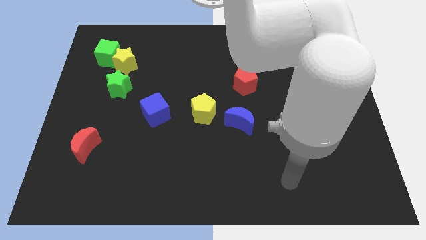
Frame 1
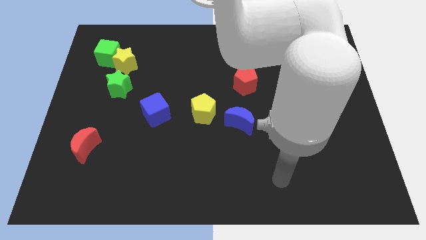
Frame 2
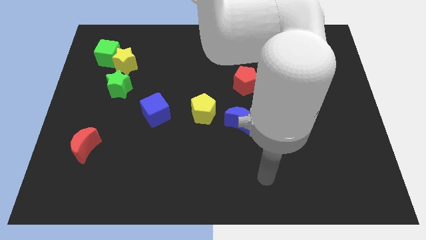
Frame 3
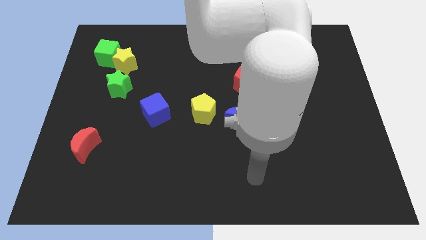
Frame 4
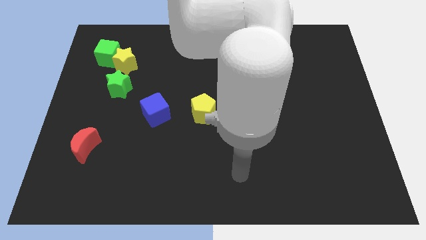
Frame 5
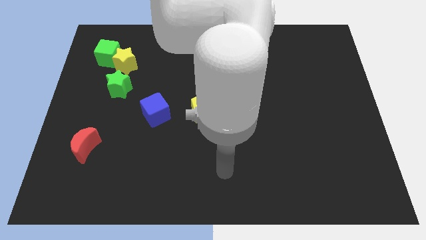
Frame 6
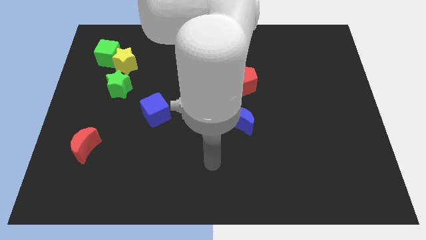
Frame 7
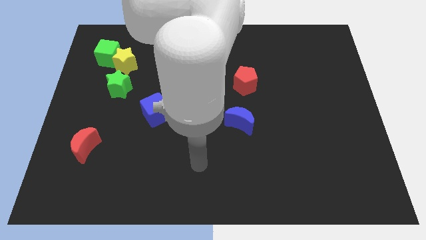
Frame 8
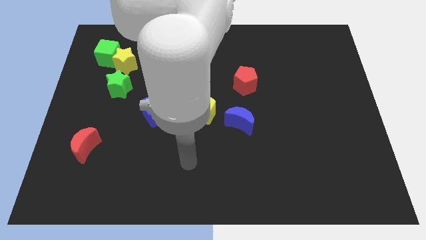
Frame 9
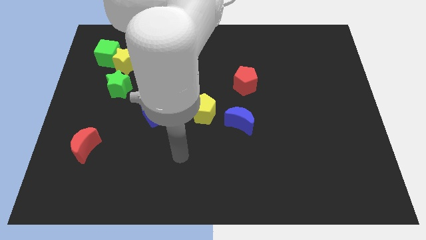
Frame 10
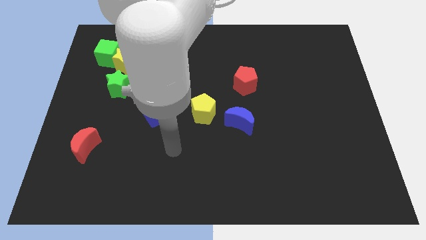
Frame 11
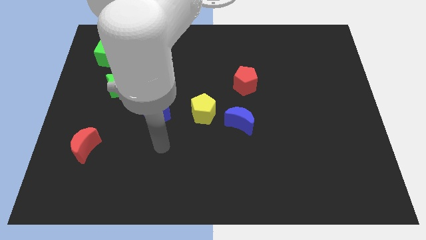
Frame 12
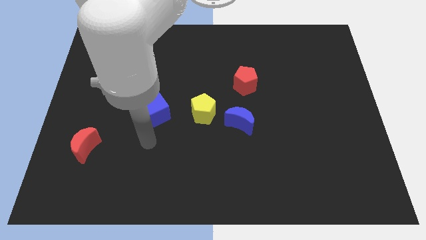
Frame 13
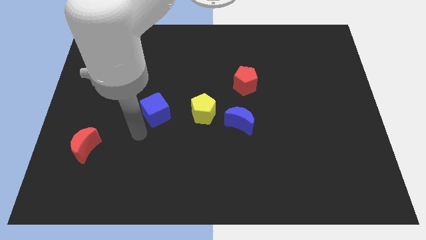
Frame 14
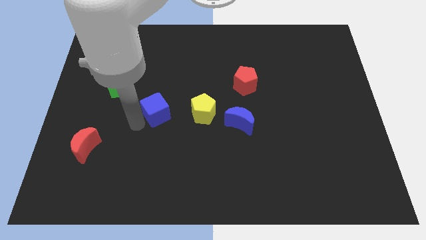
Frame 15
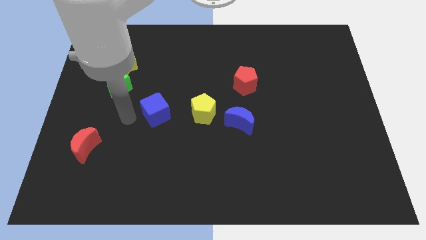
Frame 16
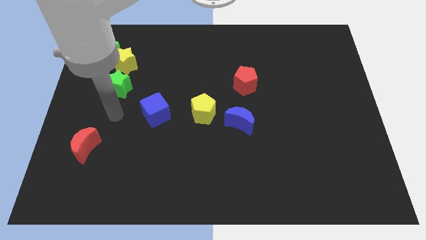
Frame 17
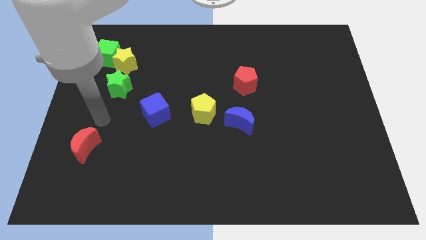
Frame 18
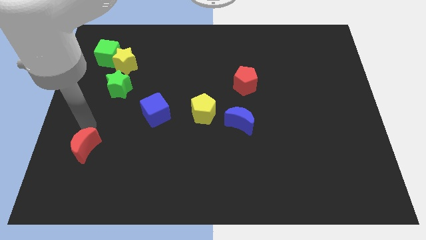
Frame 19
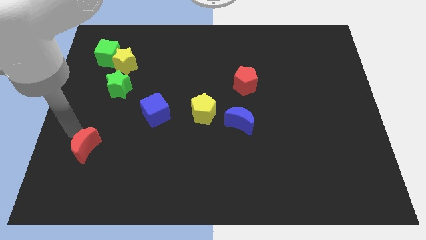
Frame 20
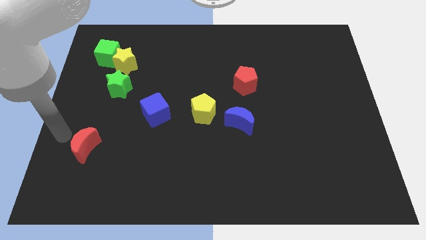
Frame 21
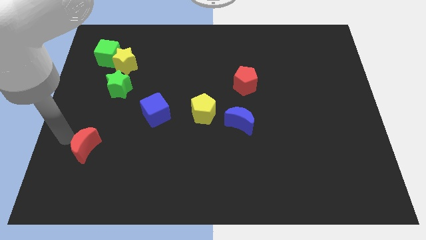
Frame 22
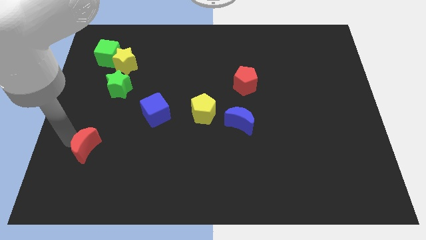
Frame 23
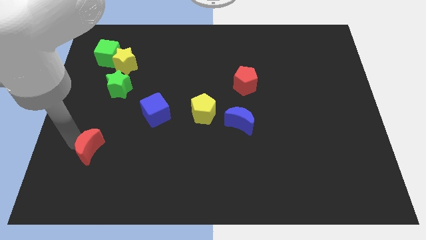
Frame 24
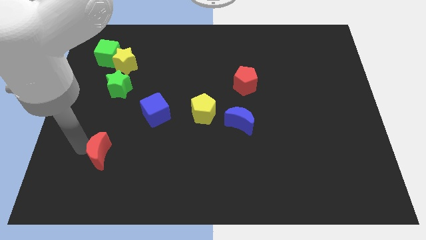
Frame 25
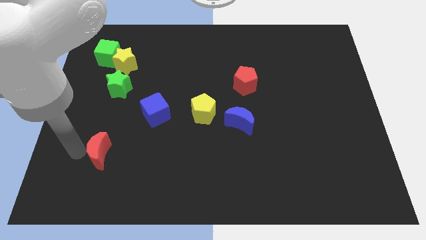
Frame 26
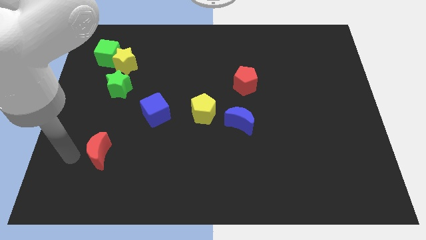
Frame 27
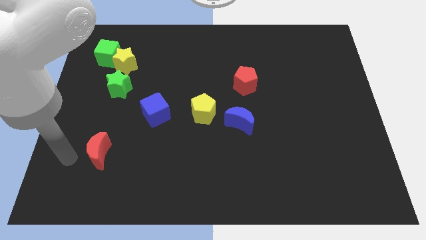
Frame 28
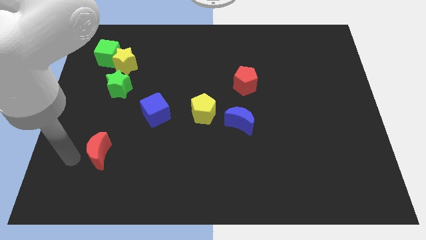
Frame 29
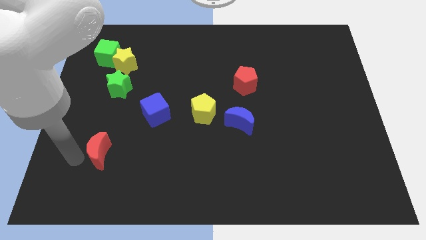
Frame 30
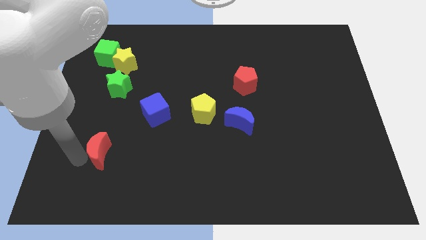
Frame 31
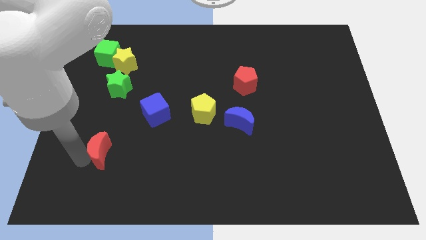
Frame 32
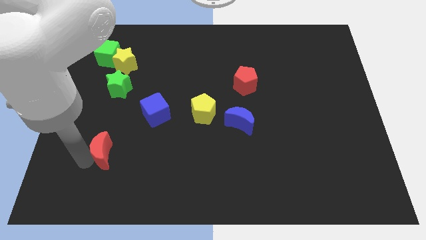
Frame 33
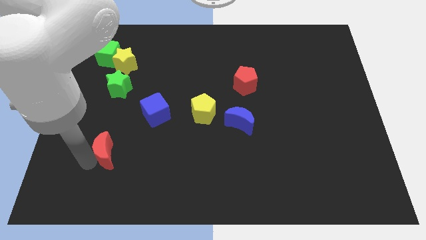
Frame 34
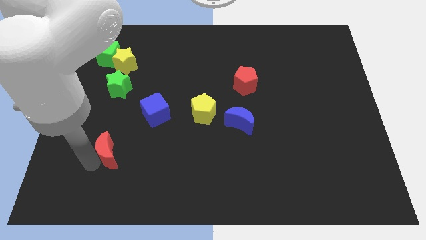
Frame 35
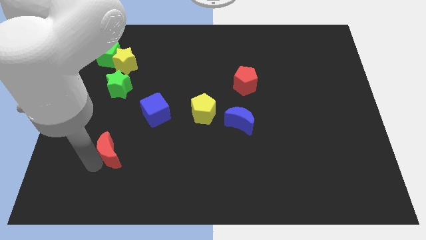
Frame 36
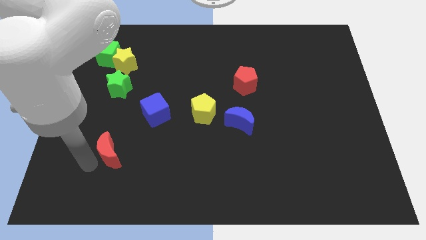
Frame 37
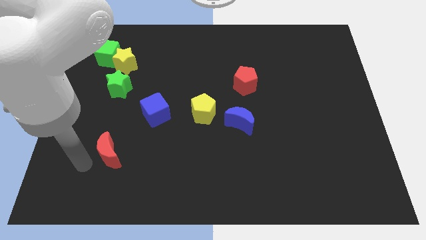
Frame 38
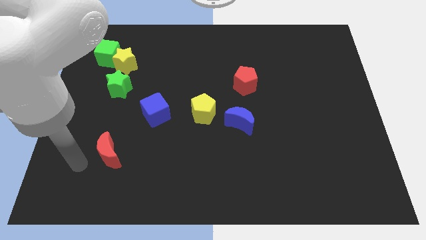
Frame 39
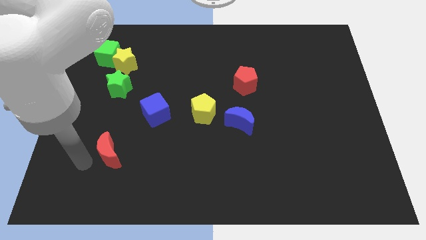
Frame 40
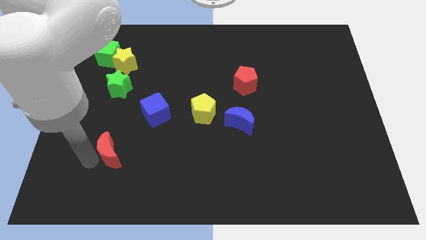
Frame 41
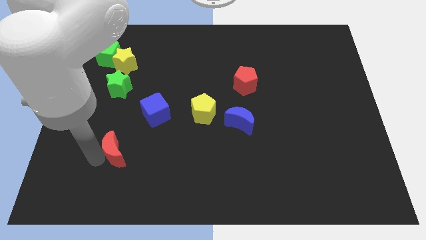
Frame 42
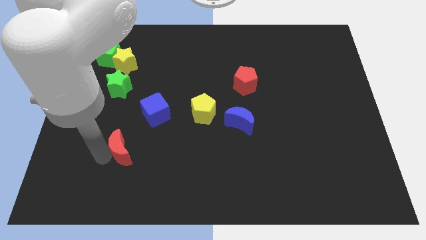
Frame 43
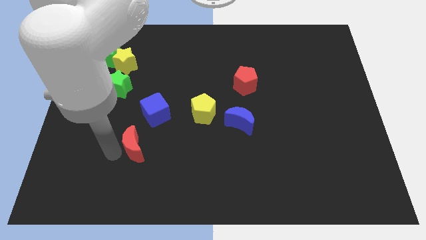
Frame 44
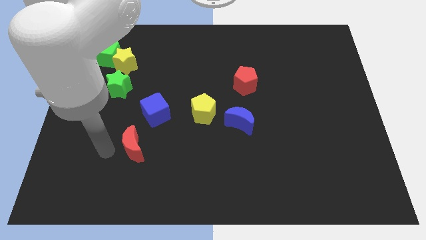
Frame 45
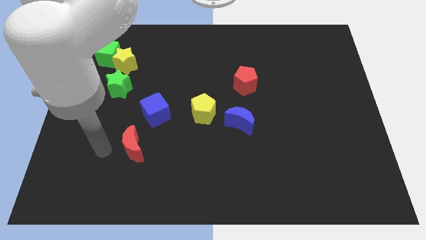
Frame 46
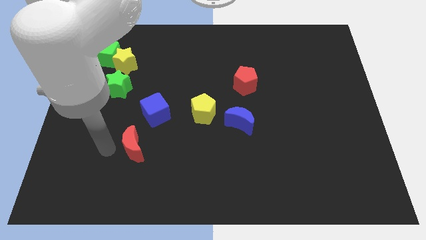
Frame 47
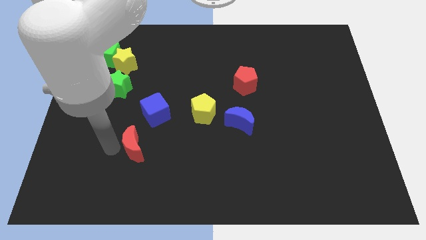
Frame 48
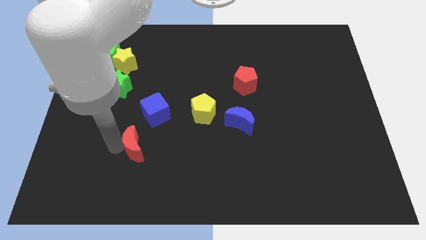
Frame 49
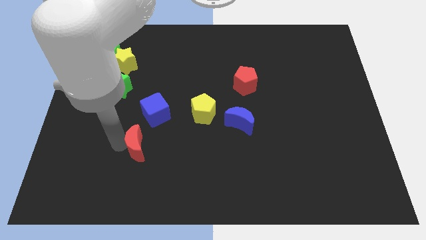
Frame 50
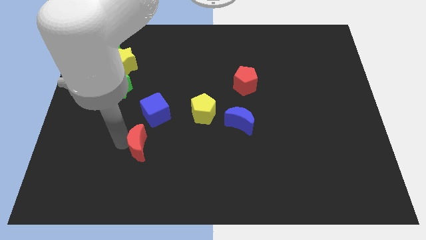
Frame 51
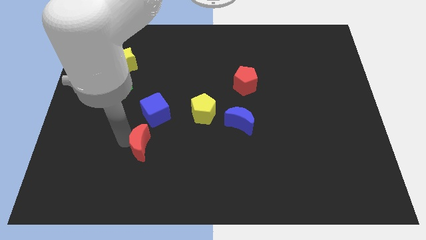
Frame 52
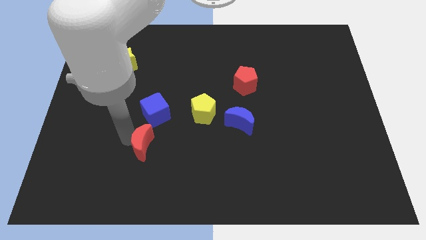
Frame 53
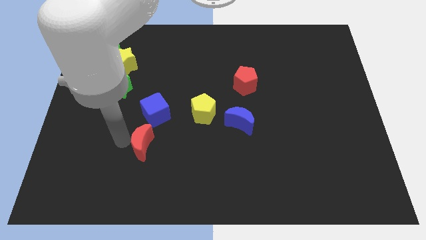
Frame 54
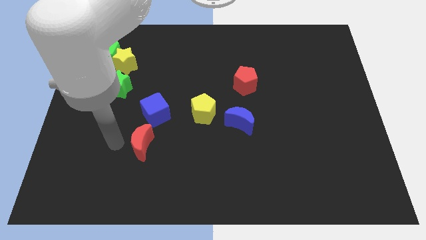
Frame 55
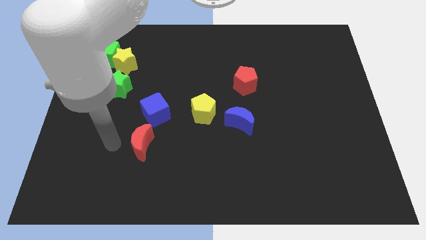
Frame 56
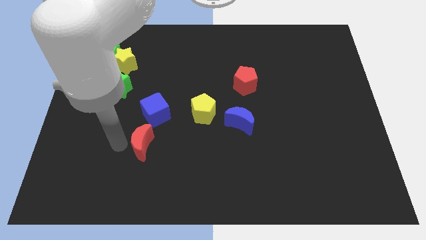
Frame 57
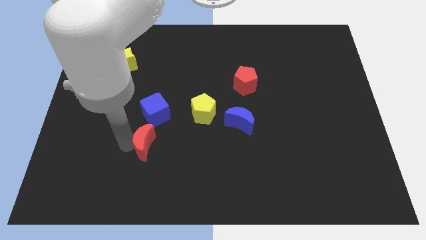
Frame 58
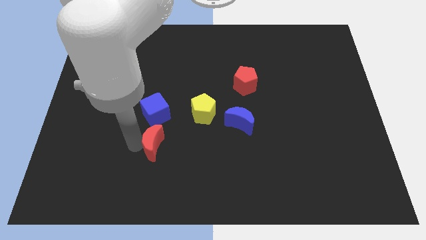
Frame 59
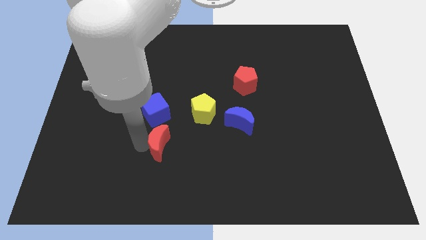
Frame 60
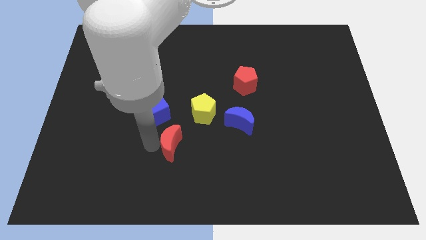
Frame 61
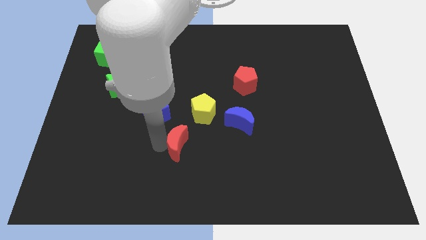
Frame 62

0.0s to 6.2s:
push the red moon to the right

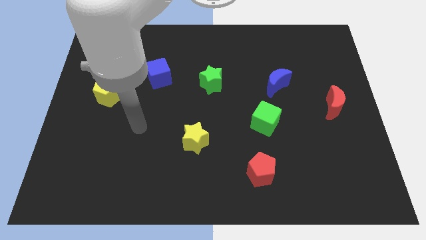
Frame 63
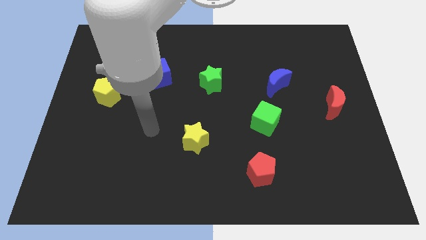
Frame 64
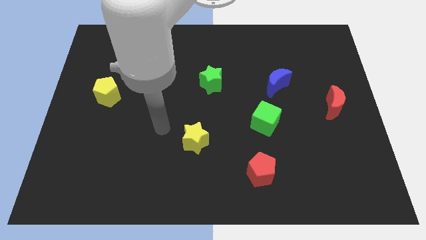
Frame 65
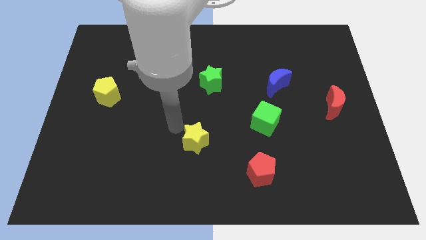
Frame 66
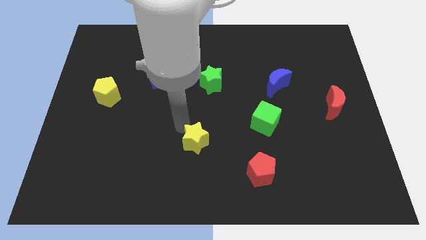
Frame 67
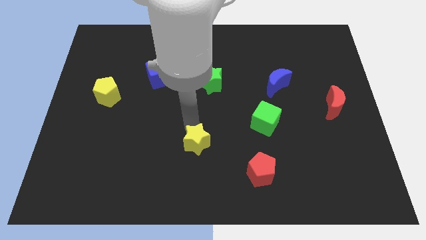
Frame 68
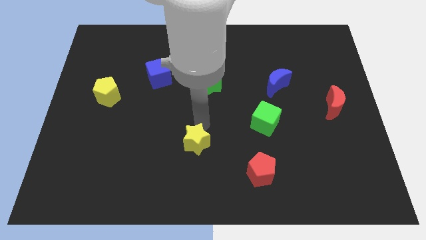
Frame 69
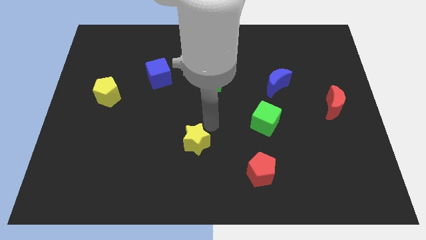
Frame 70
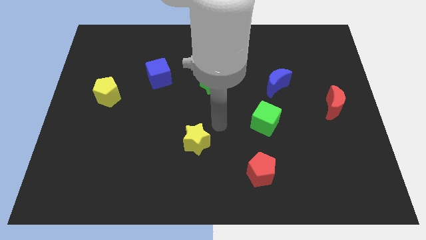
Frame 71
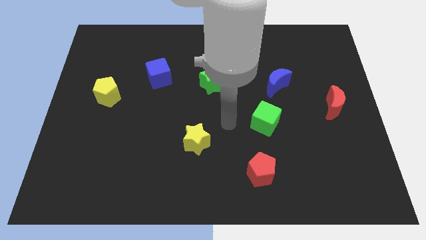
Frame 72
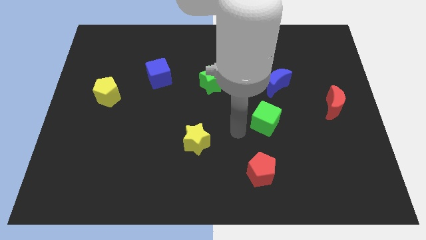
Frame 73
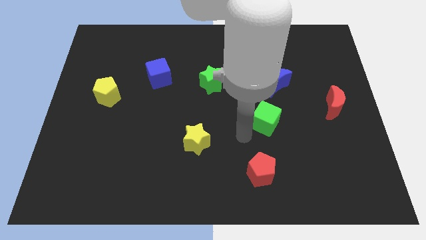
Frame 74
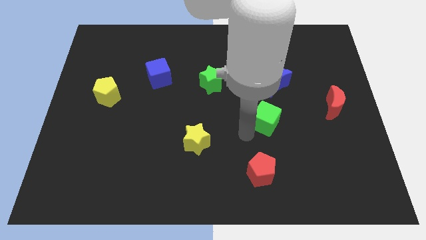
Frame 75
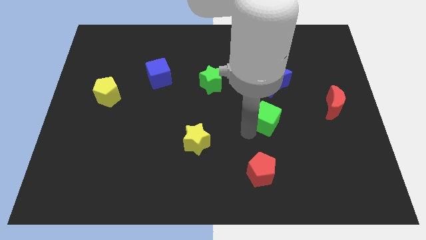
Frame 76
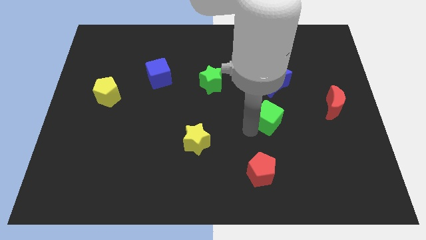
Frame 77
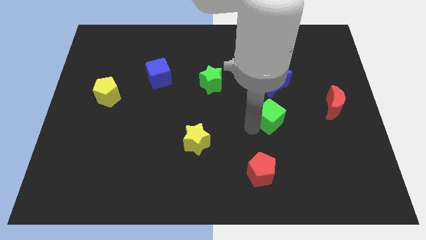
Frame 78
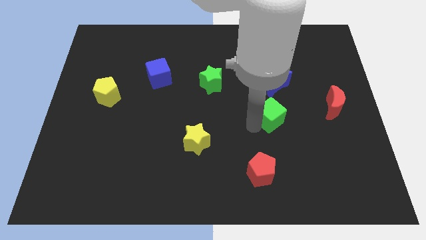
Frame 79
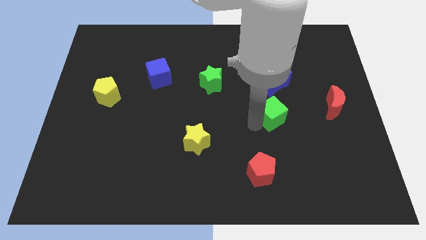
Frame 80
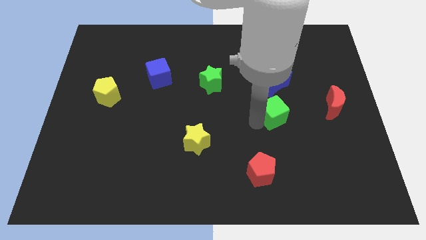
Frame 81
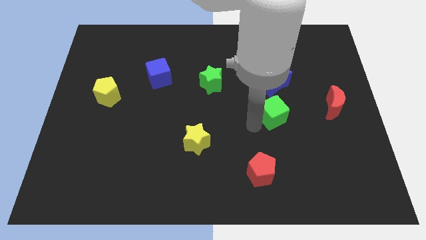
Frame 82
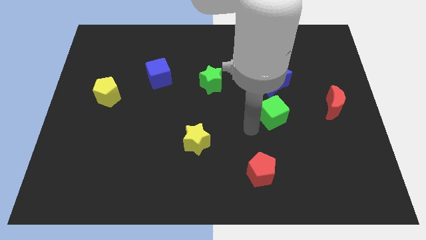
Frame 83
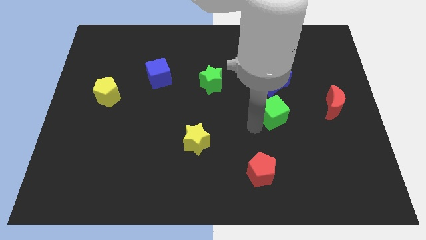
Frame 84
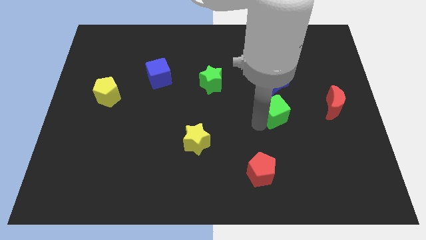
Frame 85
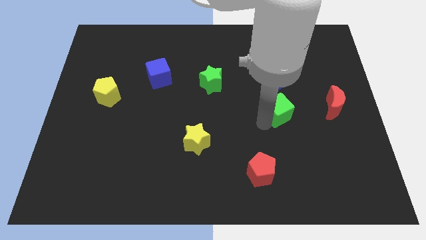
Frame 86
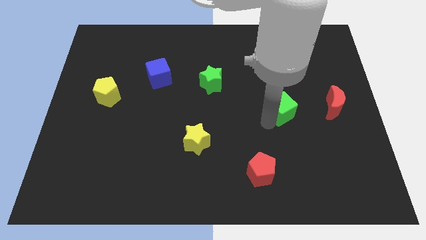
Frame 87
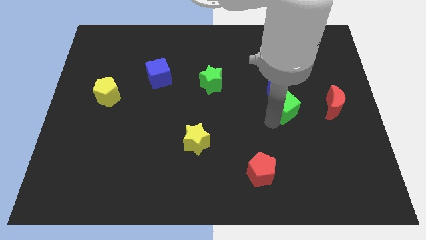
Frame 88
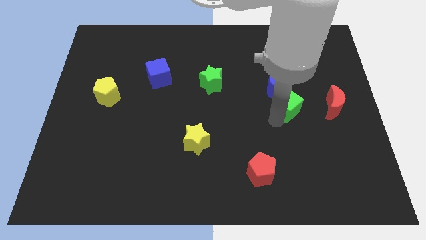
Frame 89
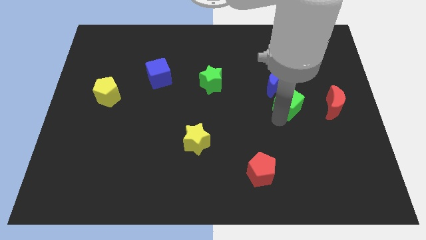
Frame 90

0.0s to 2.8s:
move the green cube a bit upwards and to the right
